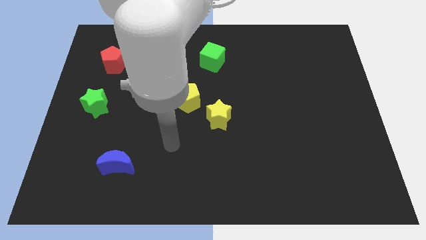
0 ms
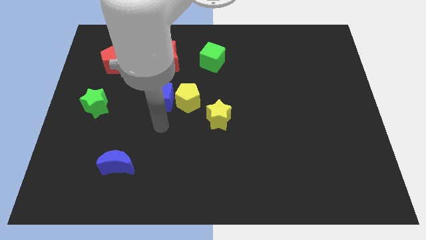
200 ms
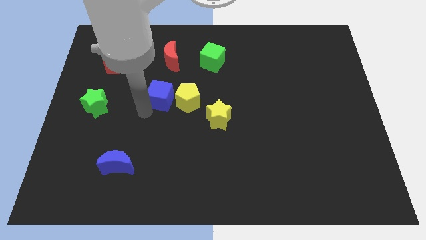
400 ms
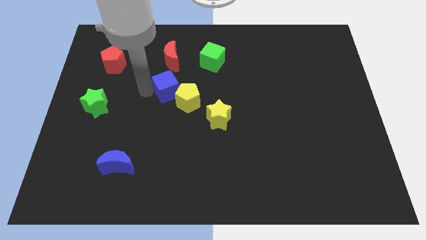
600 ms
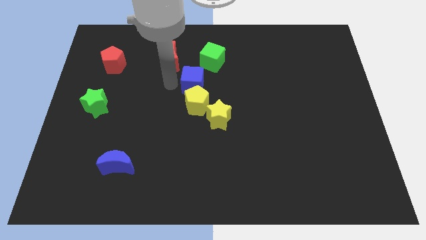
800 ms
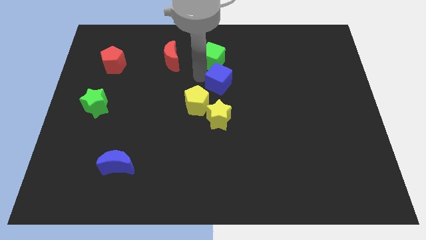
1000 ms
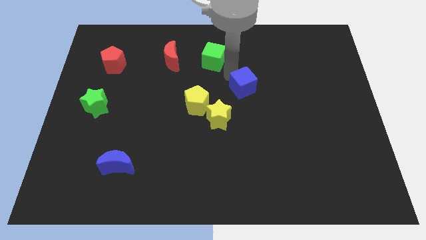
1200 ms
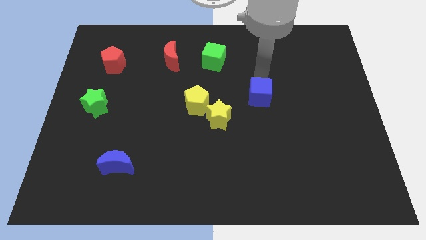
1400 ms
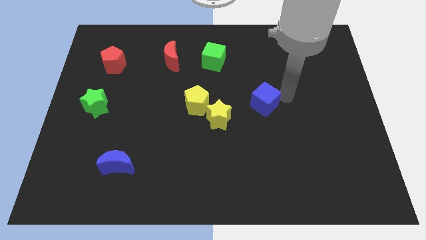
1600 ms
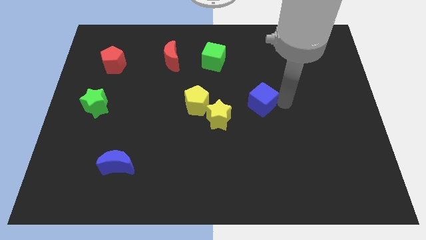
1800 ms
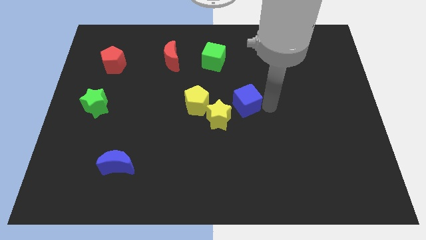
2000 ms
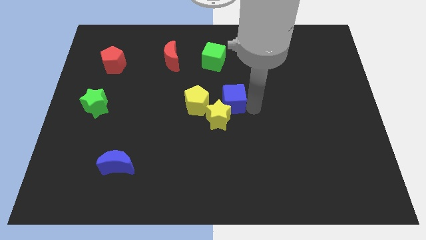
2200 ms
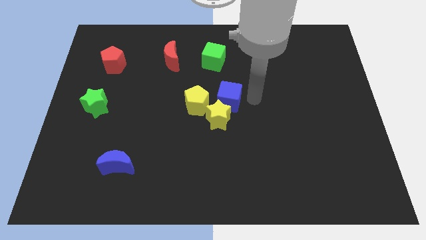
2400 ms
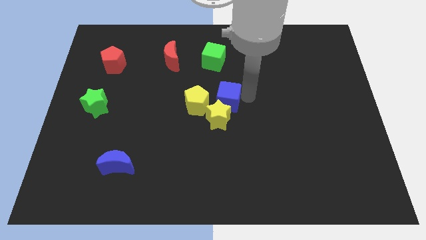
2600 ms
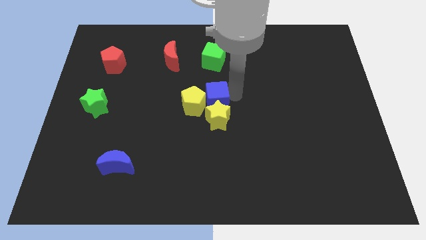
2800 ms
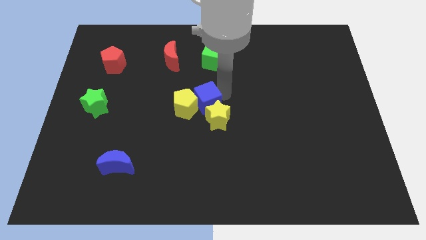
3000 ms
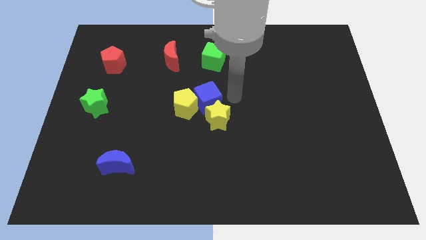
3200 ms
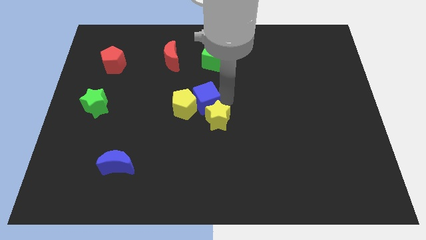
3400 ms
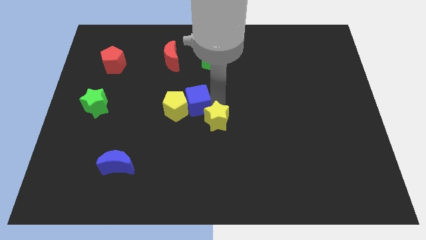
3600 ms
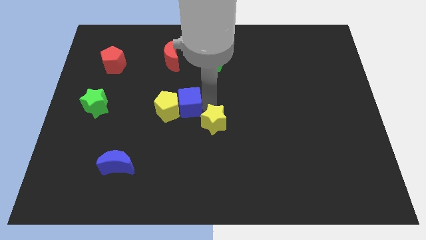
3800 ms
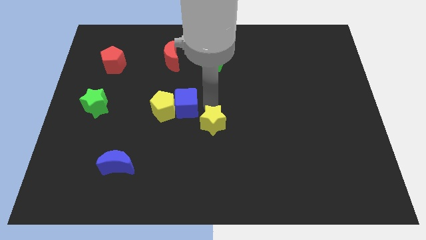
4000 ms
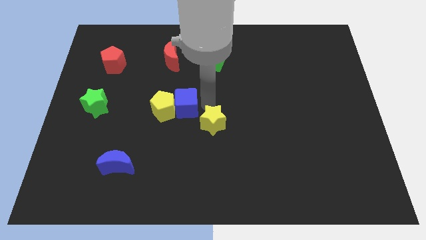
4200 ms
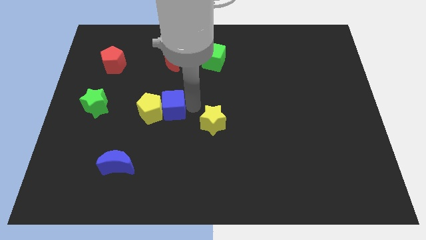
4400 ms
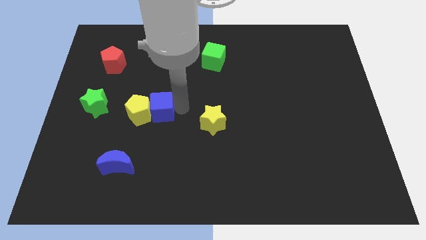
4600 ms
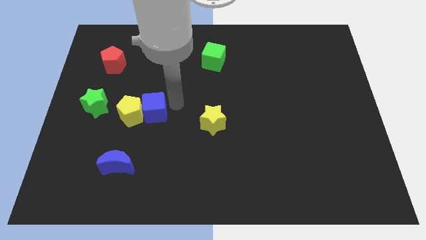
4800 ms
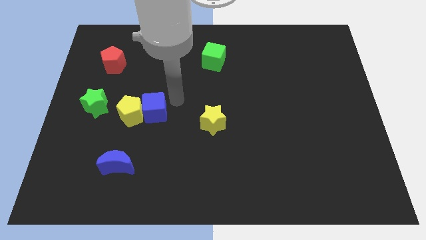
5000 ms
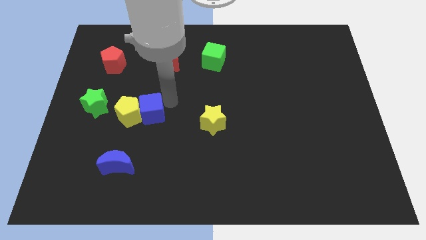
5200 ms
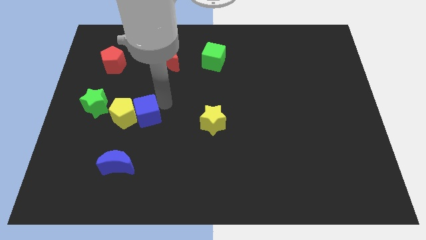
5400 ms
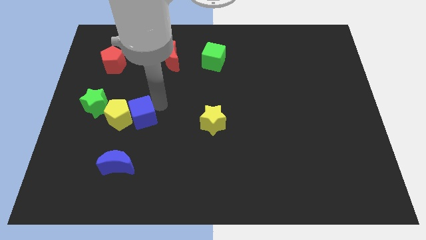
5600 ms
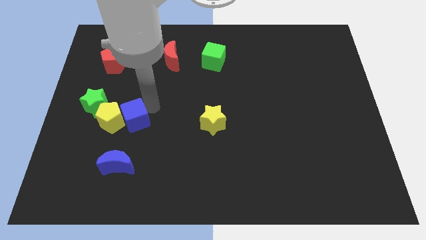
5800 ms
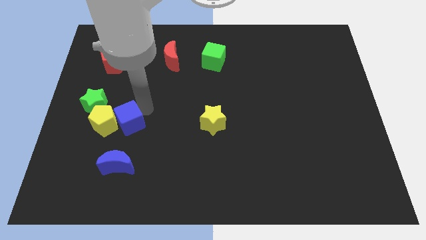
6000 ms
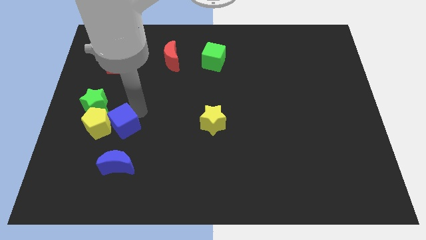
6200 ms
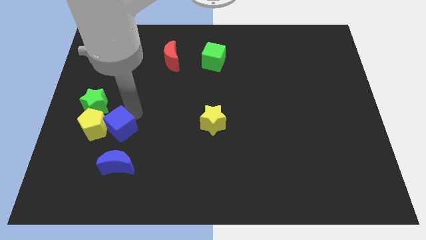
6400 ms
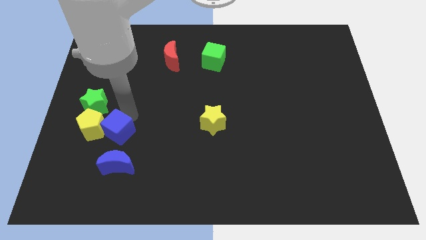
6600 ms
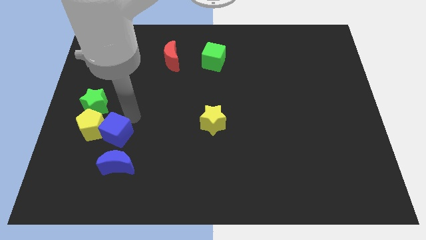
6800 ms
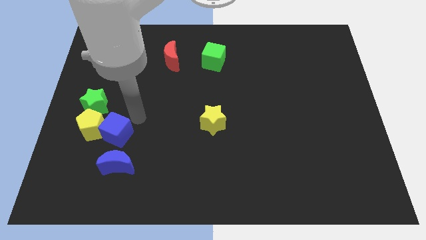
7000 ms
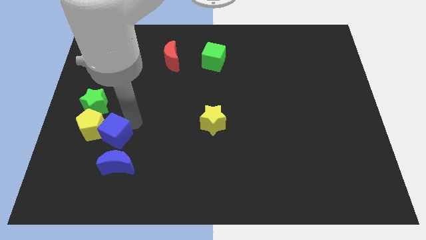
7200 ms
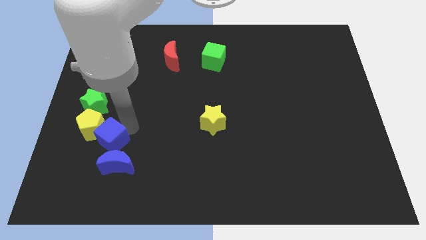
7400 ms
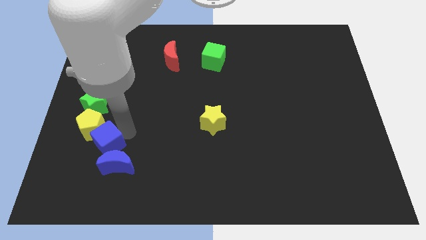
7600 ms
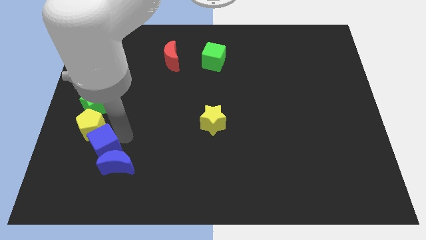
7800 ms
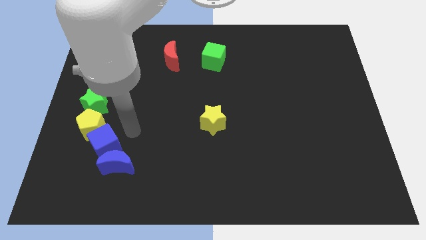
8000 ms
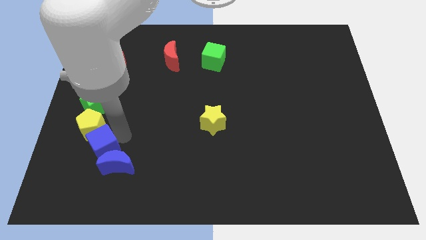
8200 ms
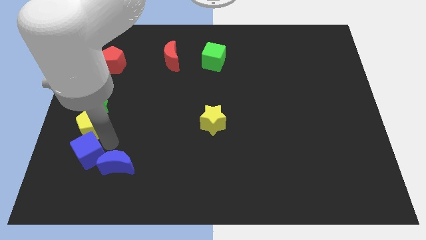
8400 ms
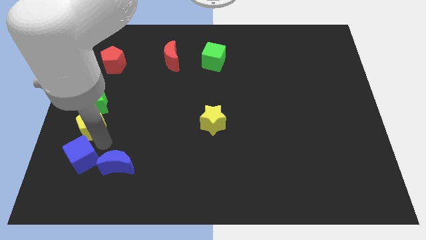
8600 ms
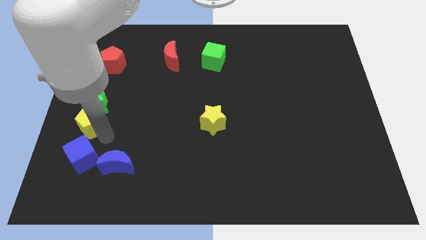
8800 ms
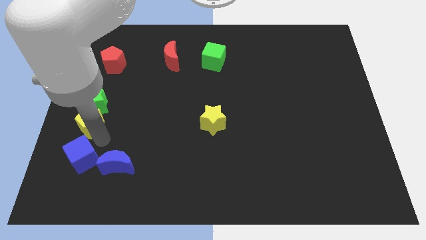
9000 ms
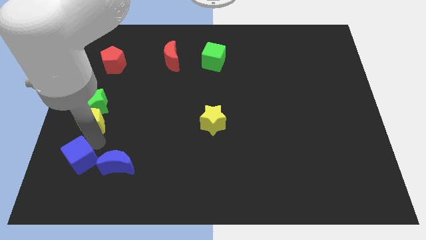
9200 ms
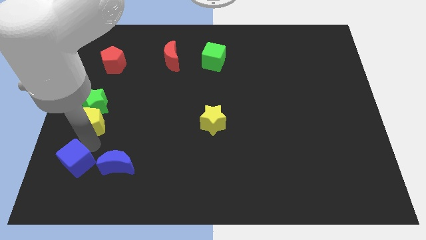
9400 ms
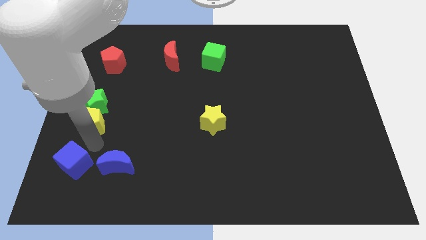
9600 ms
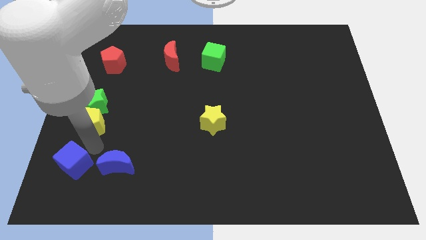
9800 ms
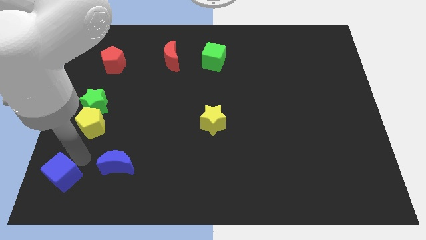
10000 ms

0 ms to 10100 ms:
put the blue cube to the bottom left of the board

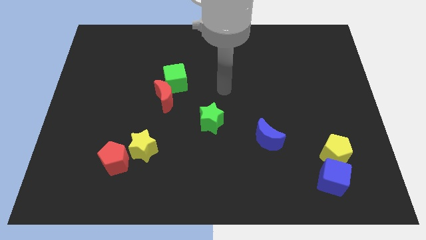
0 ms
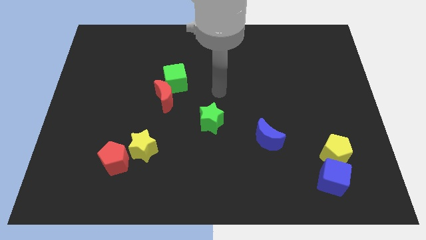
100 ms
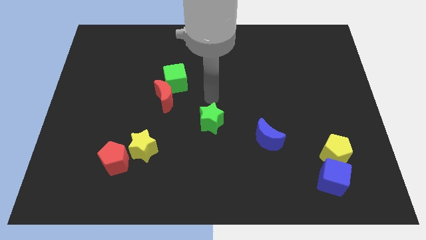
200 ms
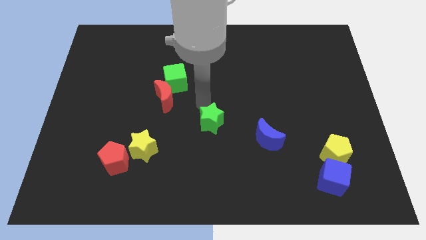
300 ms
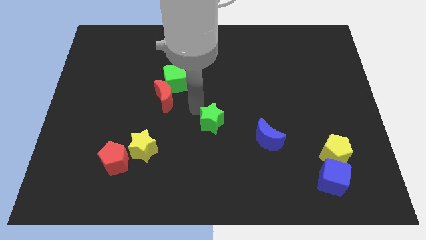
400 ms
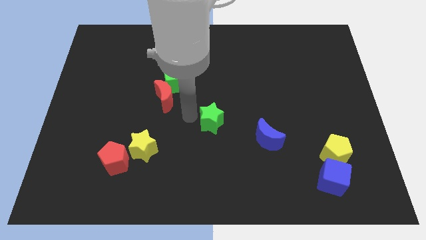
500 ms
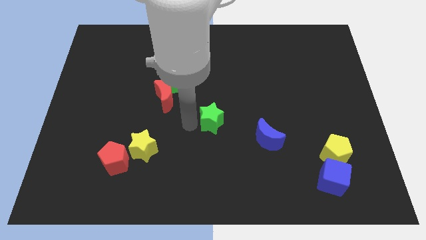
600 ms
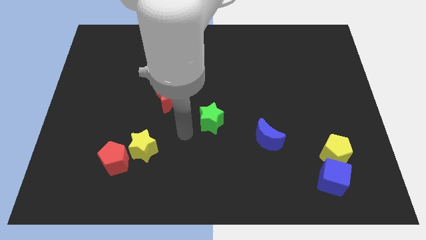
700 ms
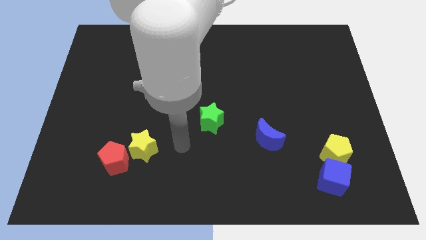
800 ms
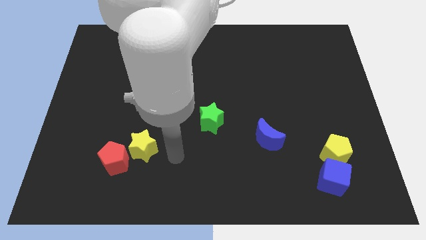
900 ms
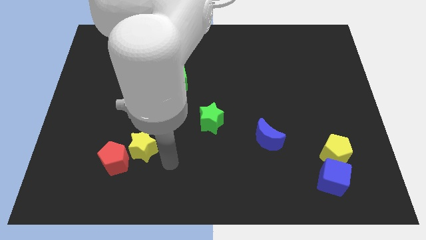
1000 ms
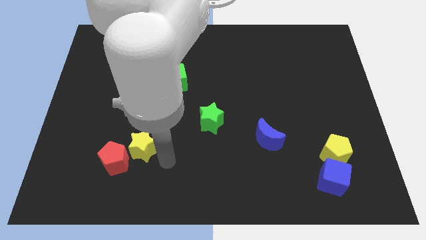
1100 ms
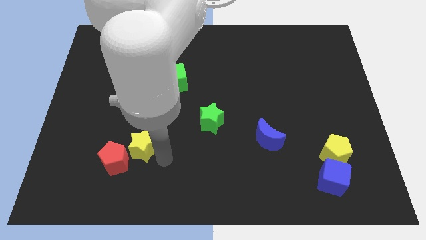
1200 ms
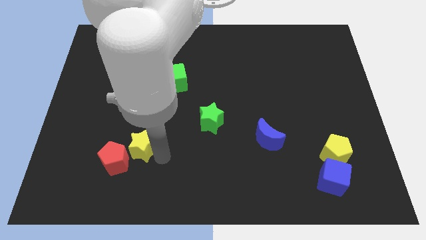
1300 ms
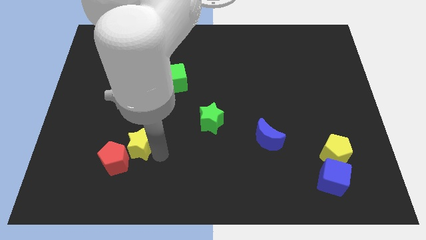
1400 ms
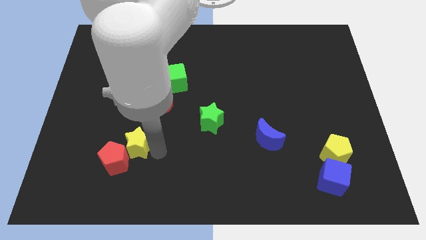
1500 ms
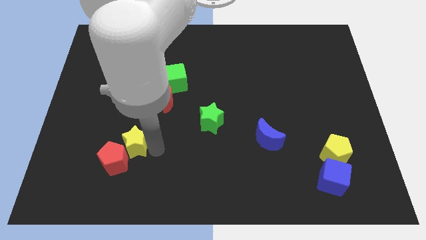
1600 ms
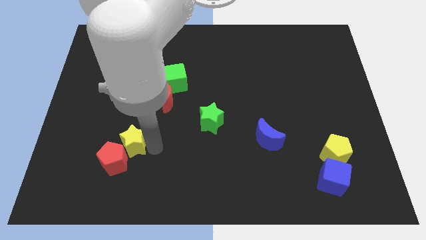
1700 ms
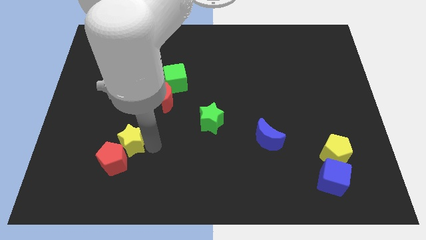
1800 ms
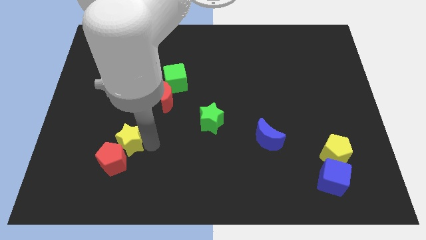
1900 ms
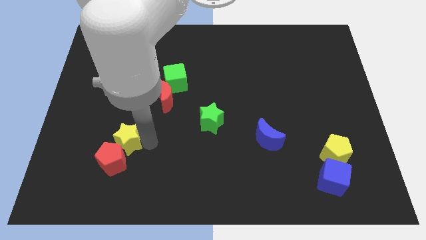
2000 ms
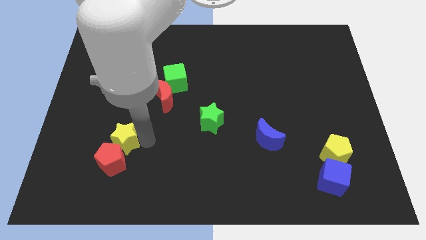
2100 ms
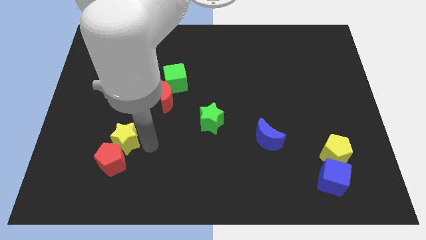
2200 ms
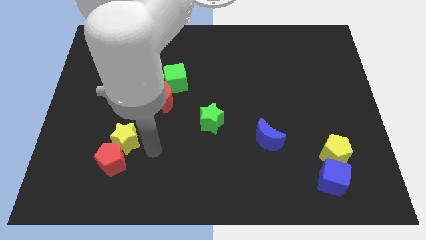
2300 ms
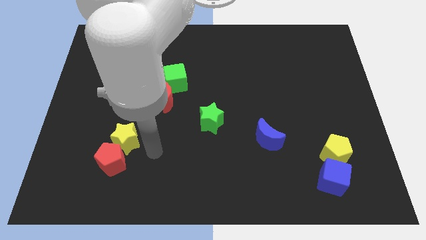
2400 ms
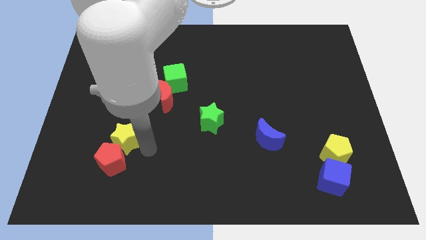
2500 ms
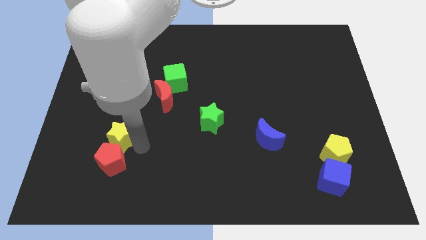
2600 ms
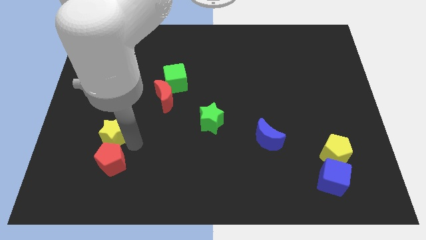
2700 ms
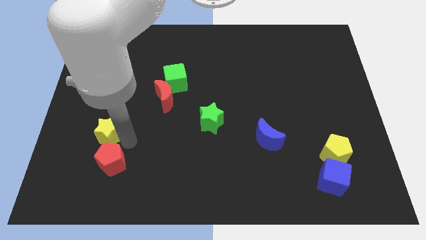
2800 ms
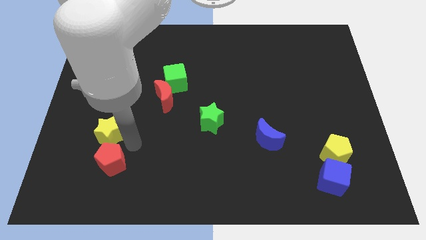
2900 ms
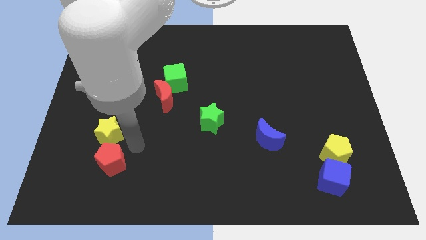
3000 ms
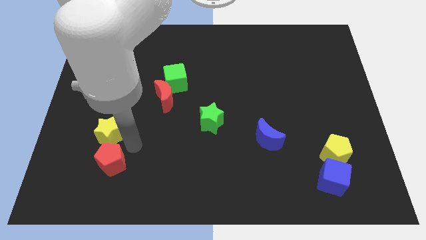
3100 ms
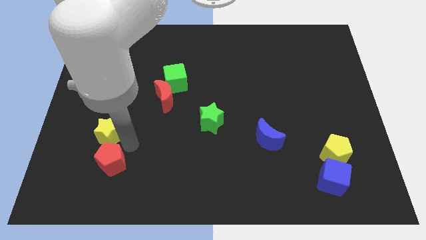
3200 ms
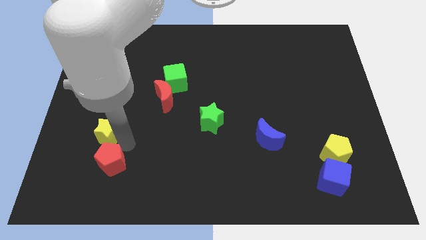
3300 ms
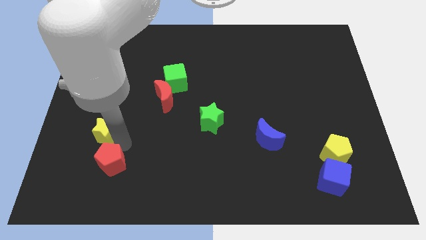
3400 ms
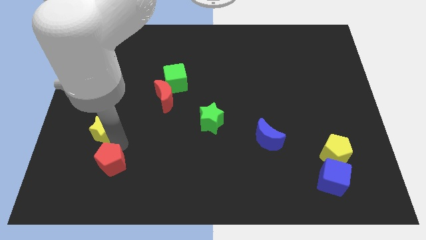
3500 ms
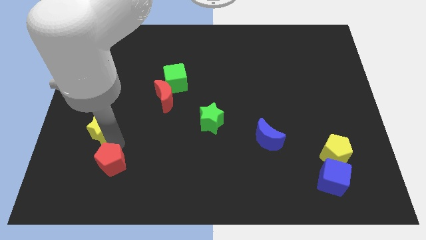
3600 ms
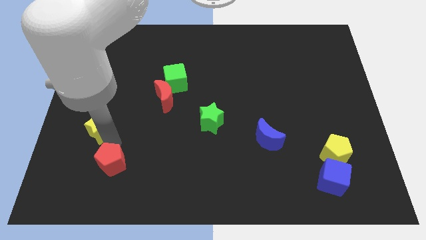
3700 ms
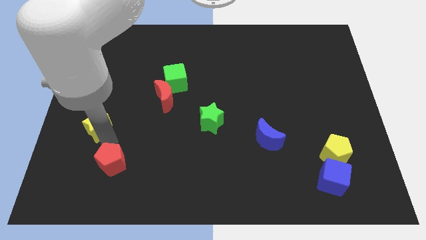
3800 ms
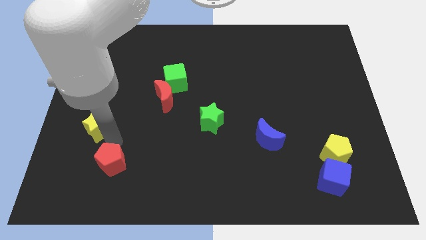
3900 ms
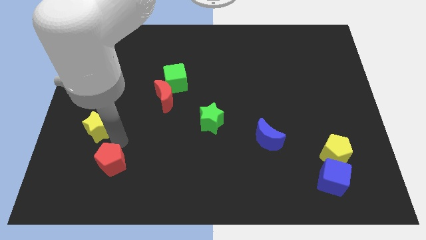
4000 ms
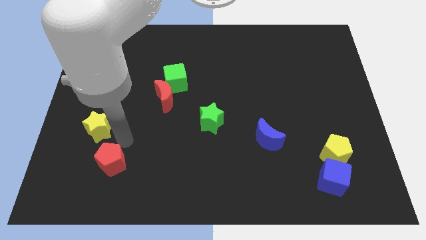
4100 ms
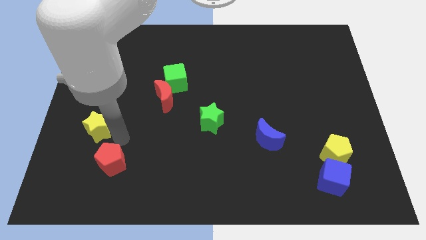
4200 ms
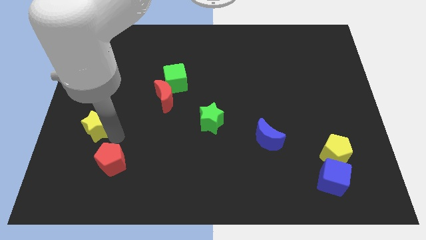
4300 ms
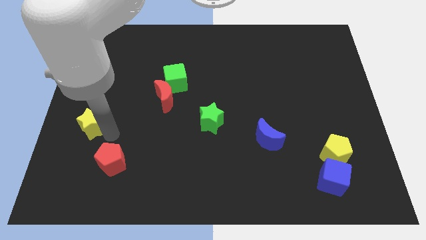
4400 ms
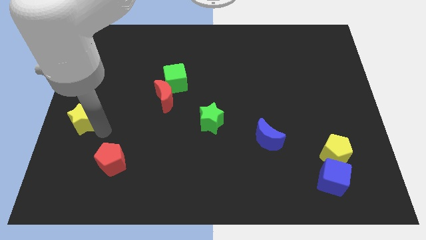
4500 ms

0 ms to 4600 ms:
push the yellow star to the left side of the board
